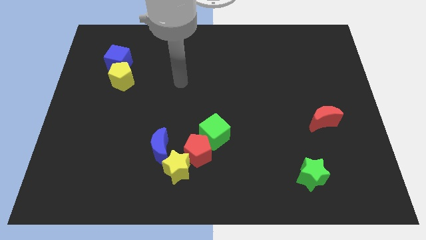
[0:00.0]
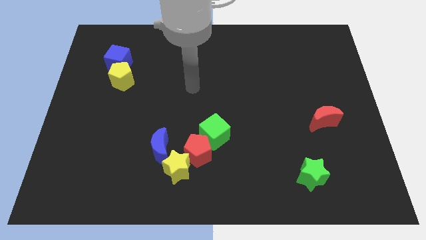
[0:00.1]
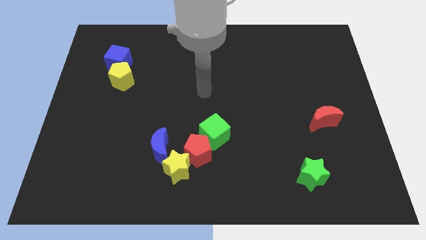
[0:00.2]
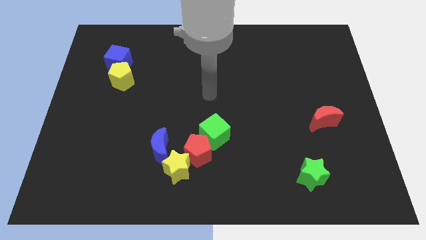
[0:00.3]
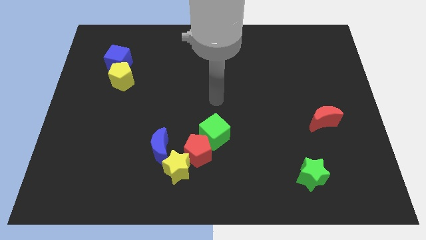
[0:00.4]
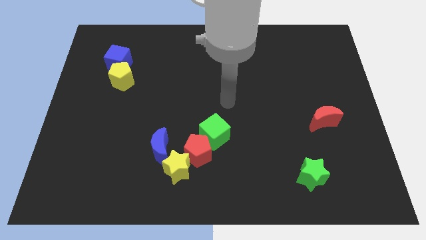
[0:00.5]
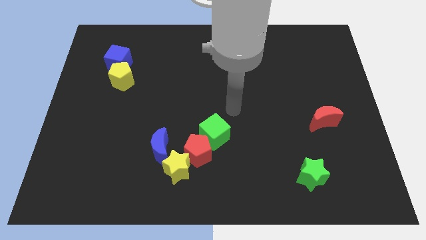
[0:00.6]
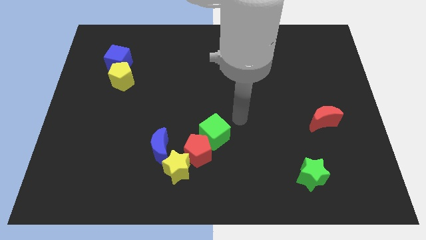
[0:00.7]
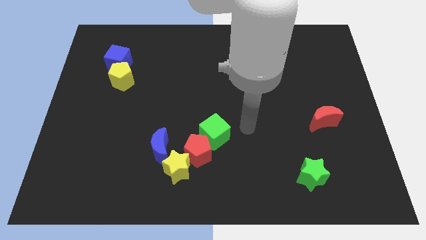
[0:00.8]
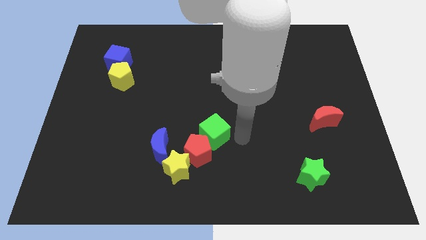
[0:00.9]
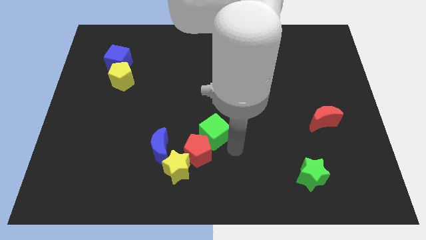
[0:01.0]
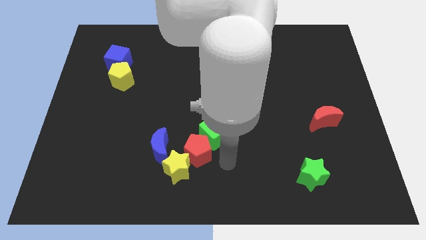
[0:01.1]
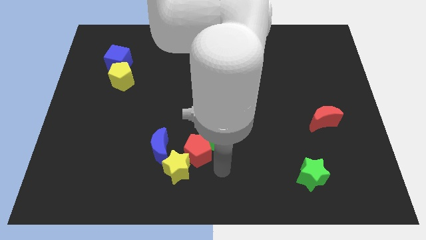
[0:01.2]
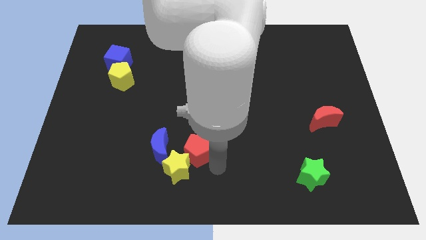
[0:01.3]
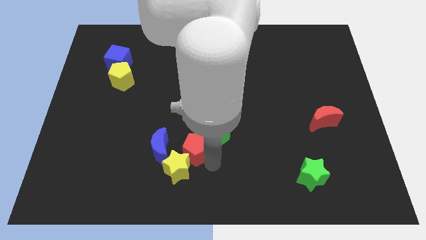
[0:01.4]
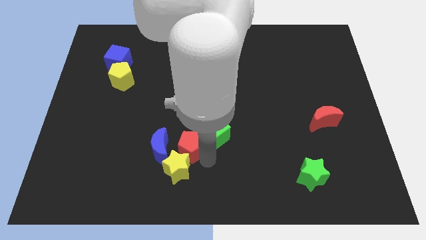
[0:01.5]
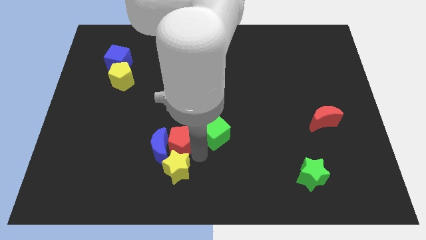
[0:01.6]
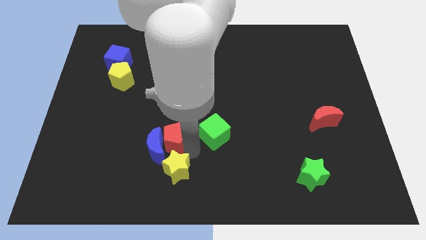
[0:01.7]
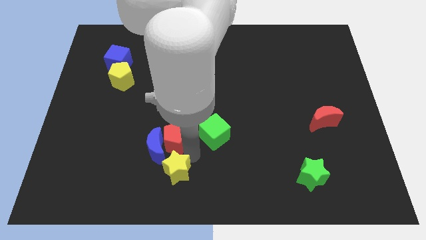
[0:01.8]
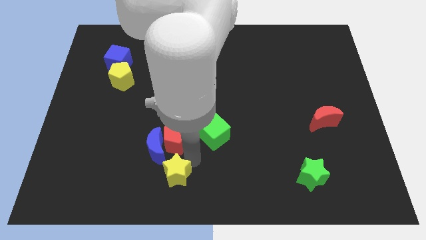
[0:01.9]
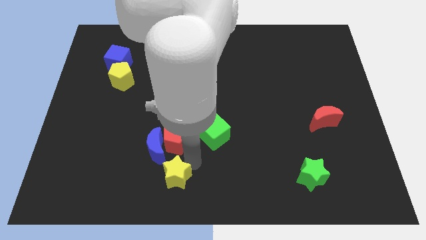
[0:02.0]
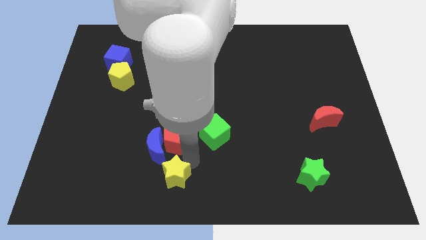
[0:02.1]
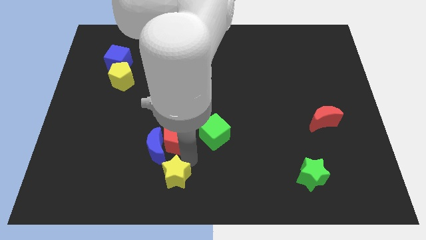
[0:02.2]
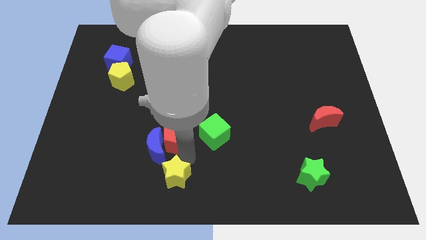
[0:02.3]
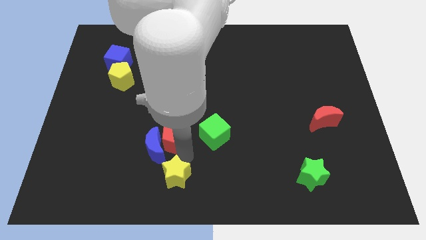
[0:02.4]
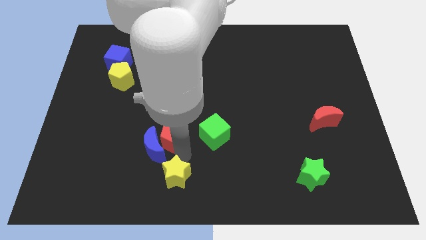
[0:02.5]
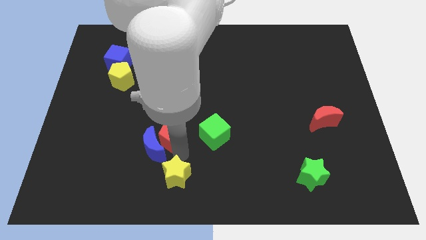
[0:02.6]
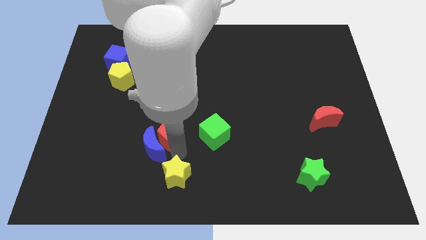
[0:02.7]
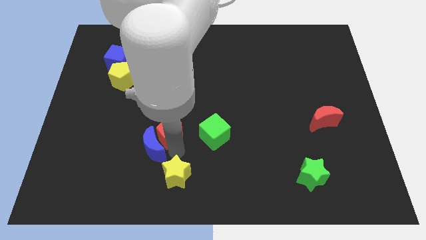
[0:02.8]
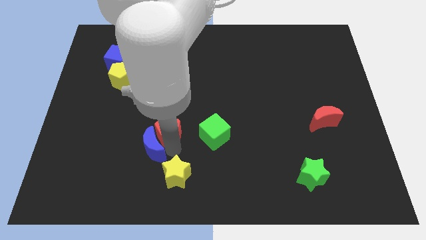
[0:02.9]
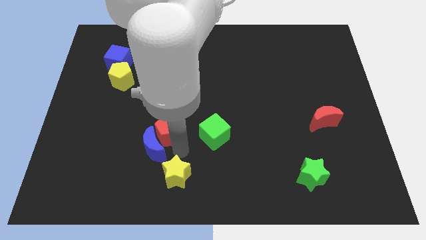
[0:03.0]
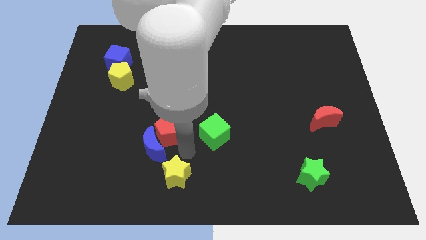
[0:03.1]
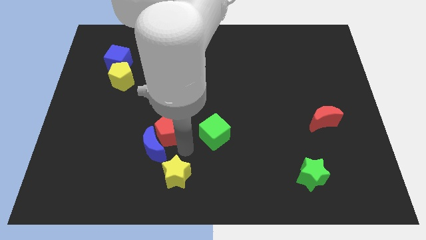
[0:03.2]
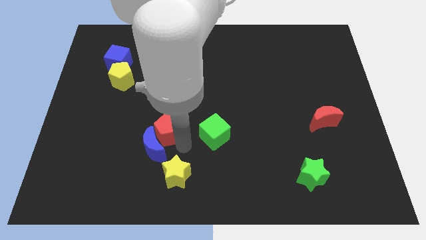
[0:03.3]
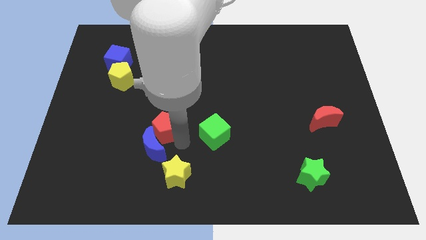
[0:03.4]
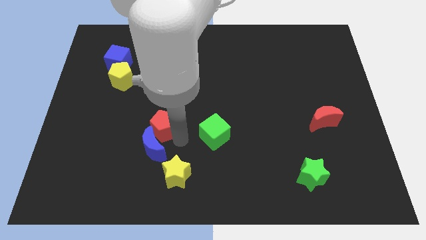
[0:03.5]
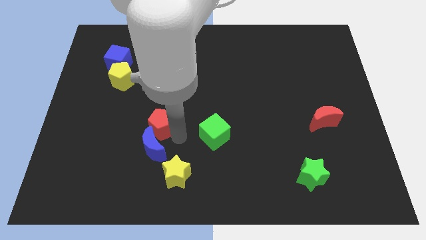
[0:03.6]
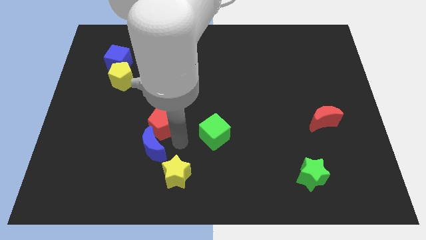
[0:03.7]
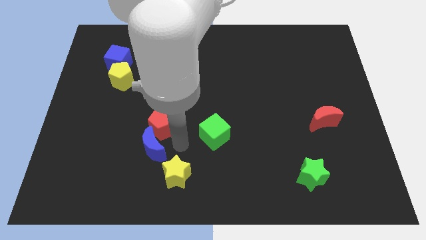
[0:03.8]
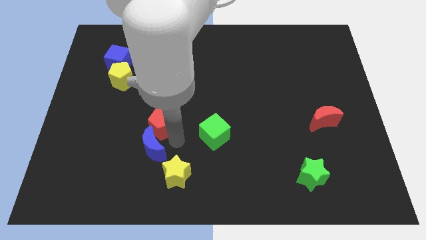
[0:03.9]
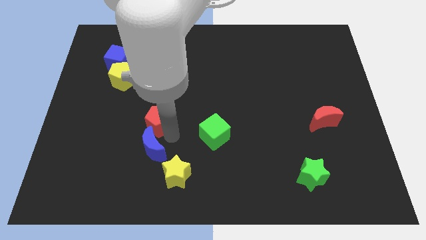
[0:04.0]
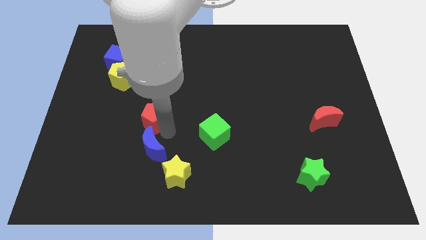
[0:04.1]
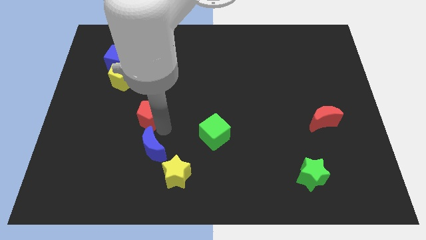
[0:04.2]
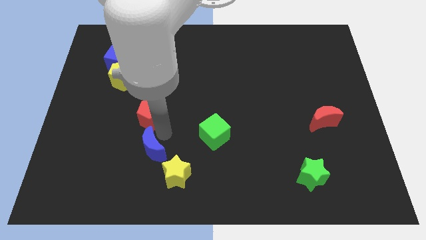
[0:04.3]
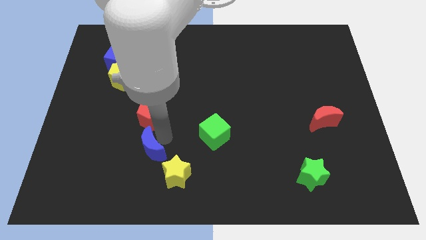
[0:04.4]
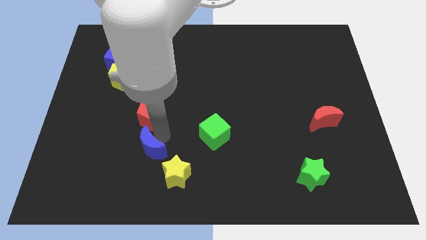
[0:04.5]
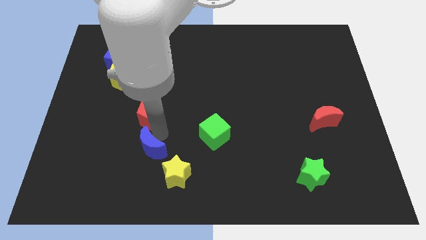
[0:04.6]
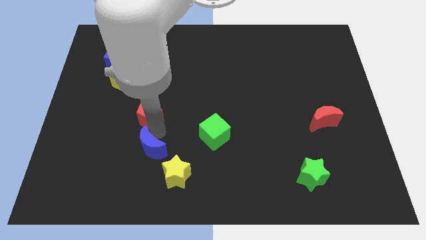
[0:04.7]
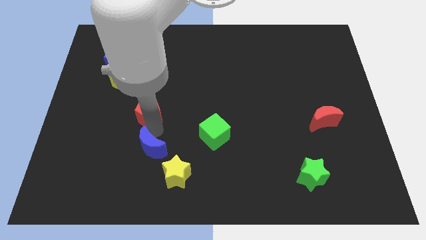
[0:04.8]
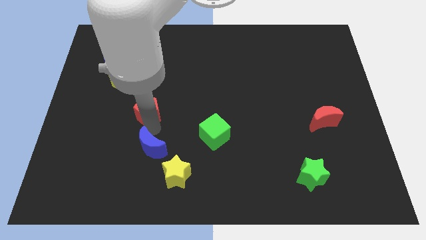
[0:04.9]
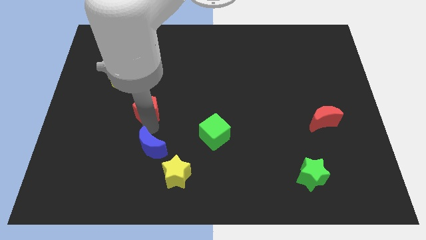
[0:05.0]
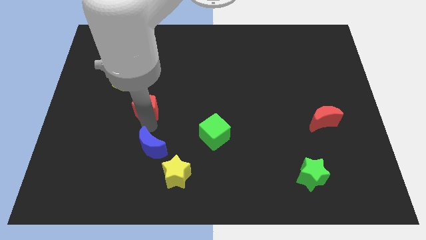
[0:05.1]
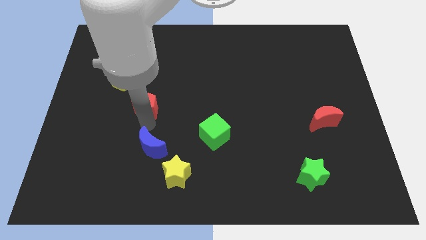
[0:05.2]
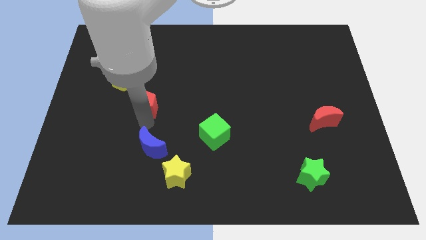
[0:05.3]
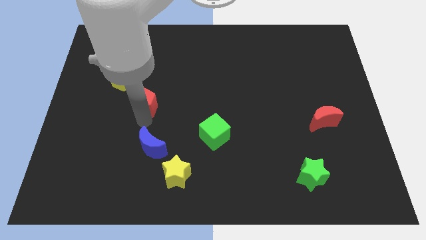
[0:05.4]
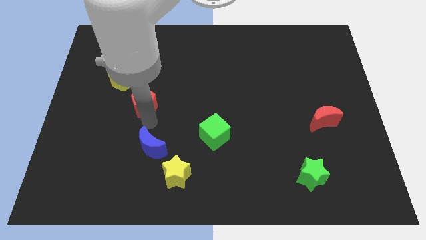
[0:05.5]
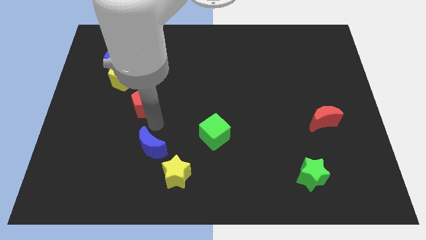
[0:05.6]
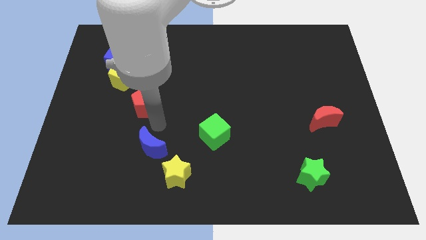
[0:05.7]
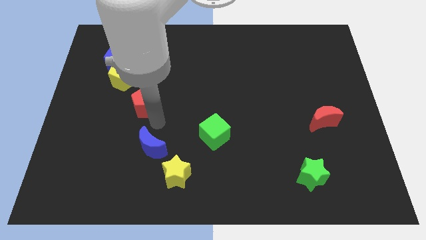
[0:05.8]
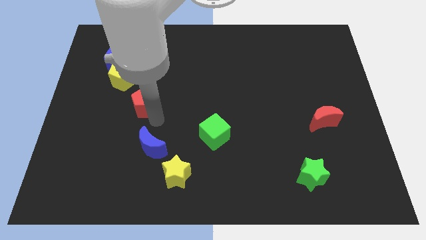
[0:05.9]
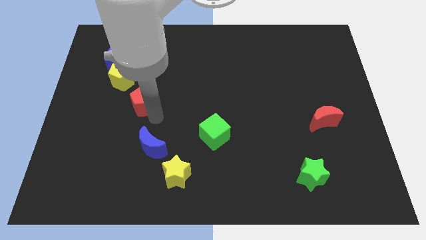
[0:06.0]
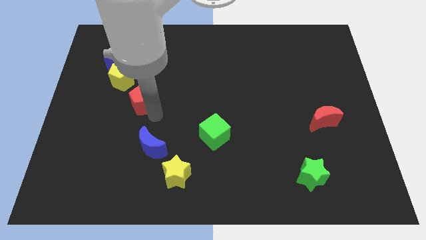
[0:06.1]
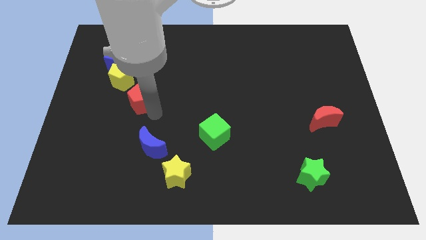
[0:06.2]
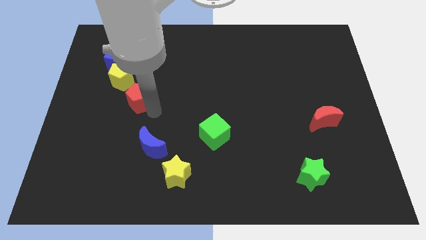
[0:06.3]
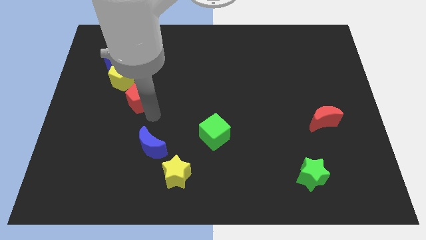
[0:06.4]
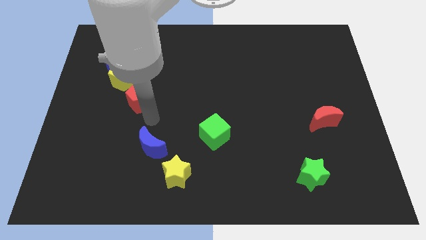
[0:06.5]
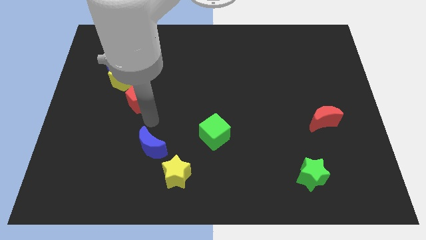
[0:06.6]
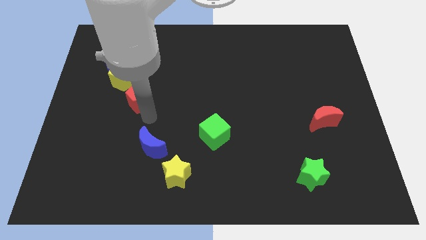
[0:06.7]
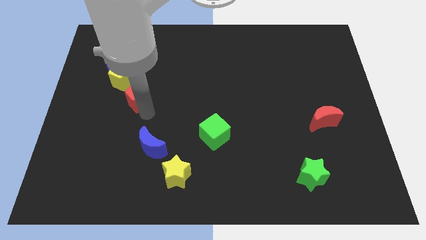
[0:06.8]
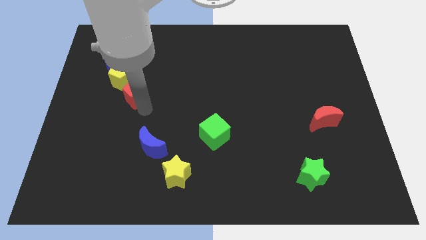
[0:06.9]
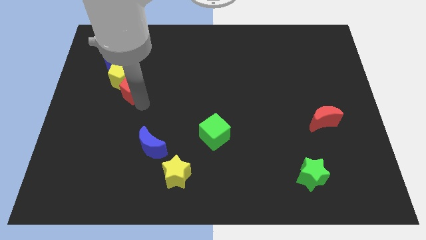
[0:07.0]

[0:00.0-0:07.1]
put the red pentagon next to the yellow pentagon
